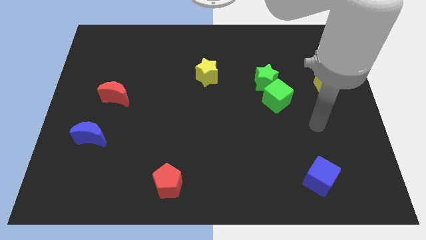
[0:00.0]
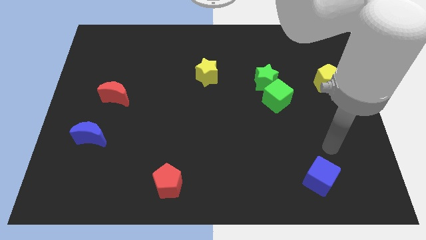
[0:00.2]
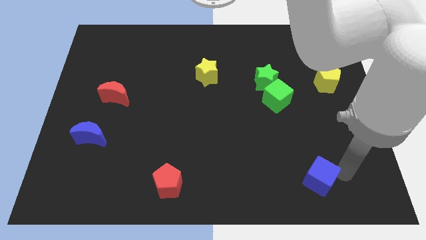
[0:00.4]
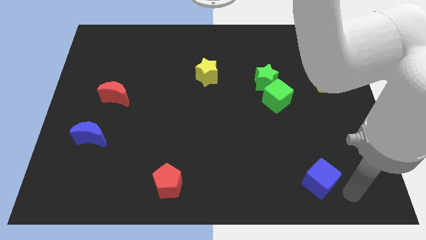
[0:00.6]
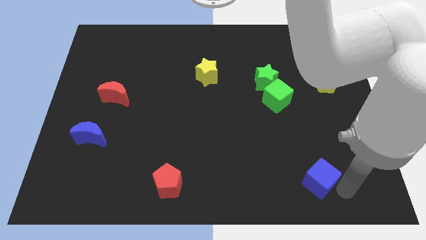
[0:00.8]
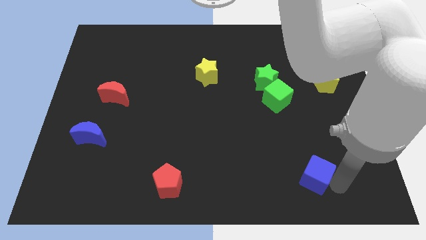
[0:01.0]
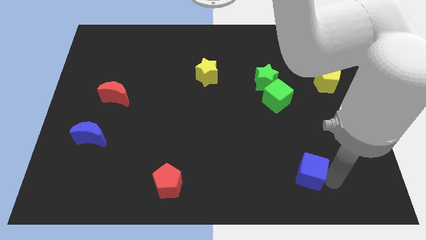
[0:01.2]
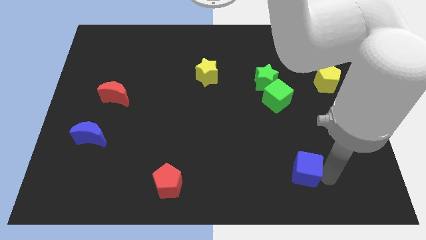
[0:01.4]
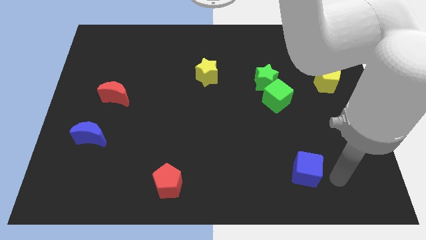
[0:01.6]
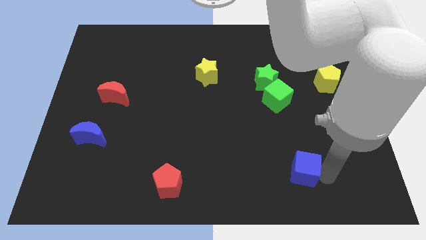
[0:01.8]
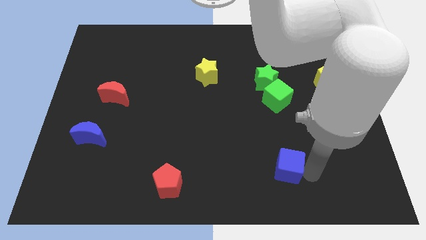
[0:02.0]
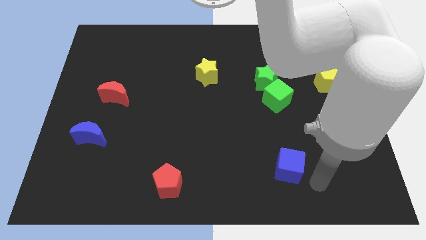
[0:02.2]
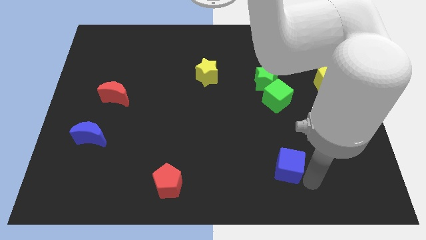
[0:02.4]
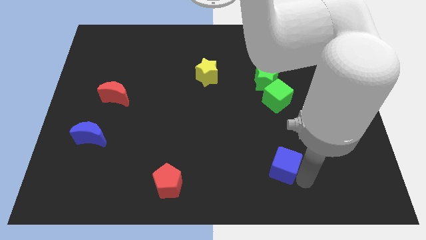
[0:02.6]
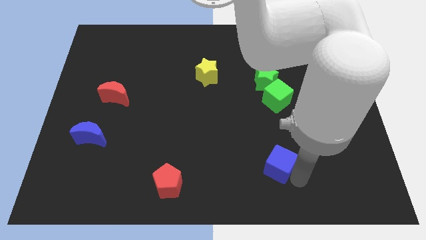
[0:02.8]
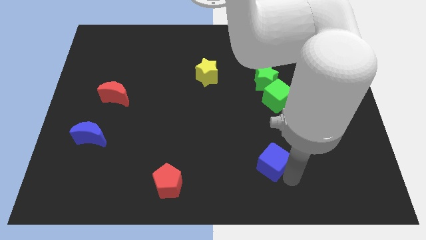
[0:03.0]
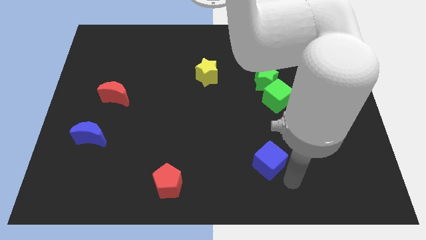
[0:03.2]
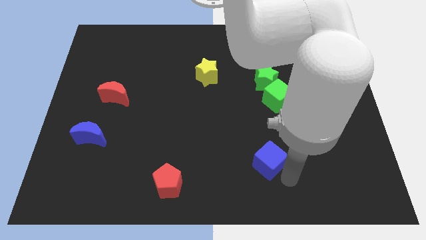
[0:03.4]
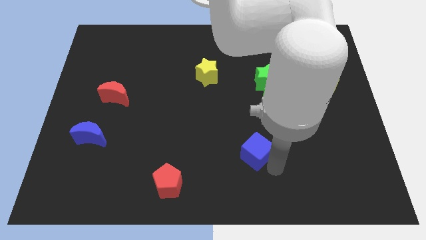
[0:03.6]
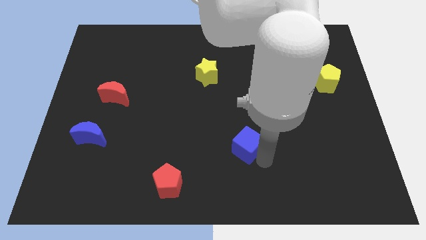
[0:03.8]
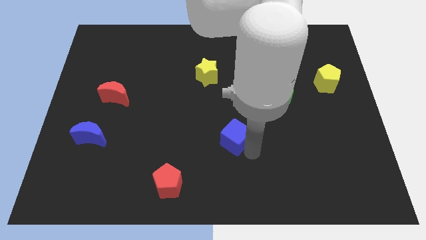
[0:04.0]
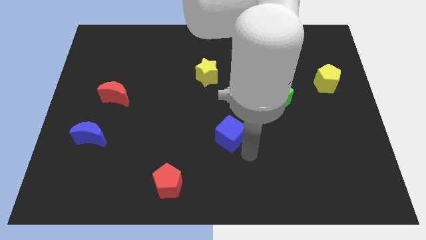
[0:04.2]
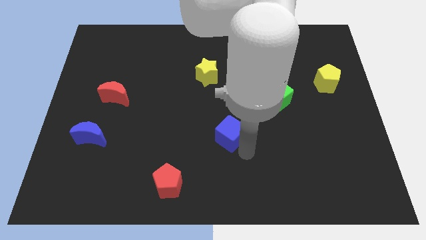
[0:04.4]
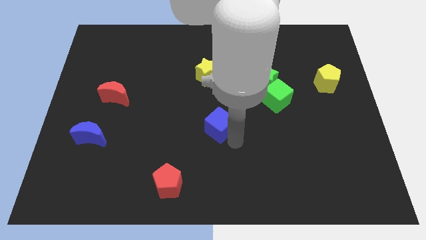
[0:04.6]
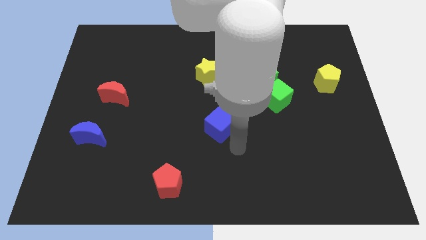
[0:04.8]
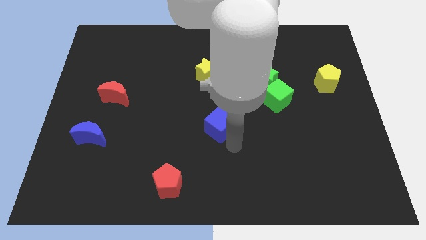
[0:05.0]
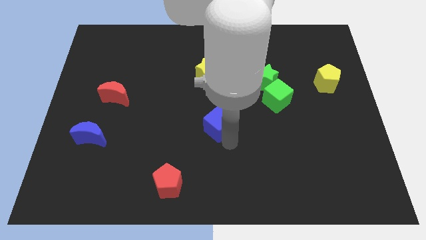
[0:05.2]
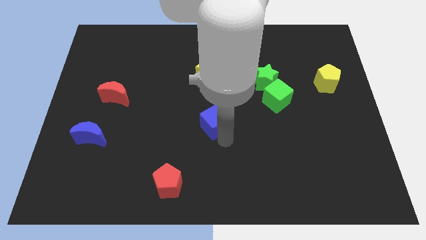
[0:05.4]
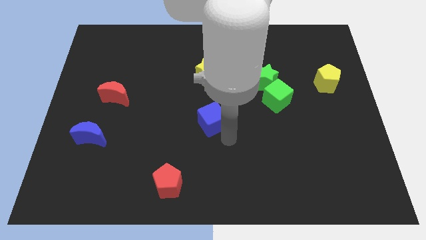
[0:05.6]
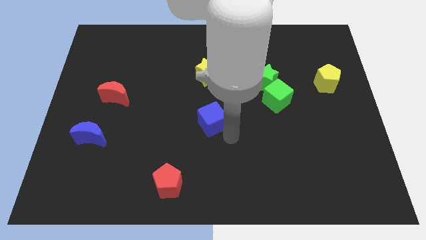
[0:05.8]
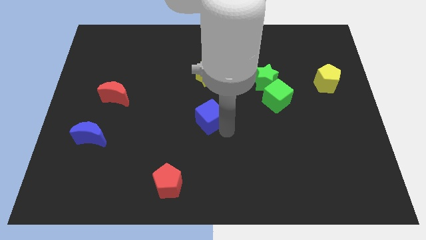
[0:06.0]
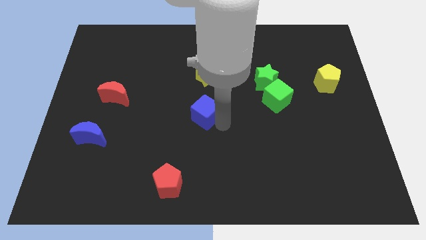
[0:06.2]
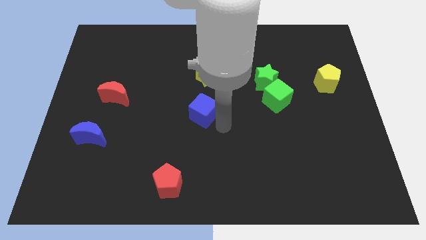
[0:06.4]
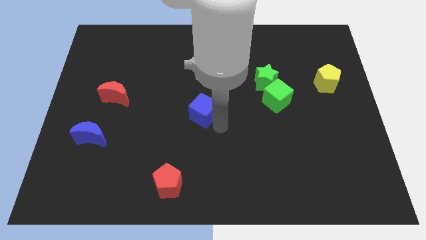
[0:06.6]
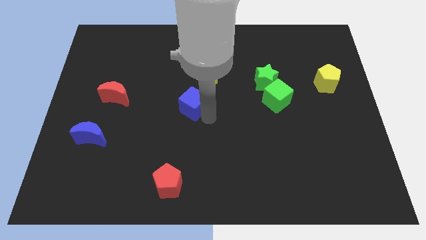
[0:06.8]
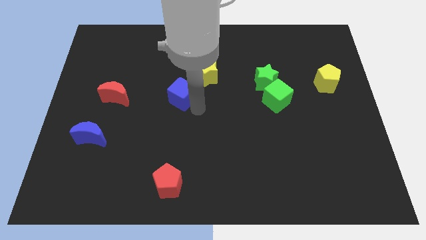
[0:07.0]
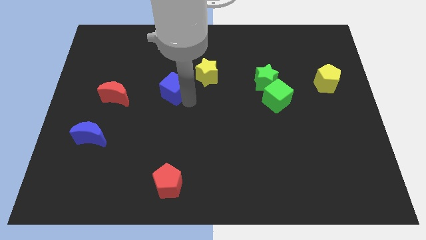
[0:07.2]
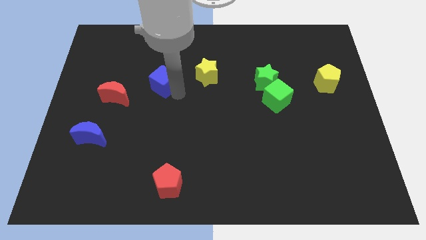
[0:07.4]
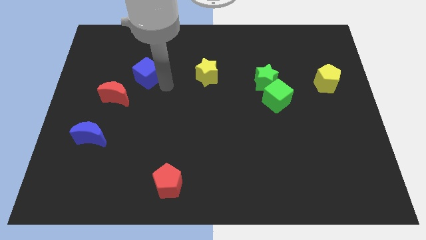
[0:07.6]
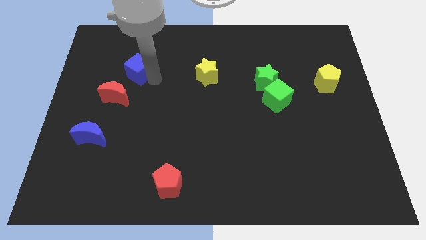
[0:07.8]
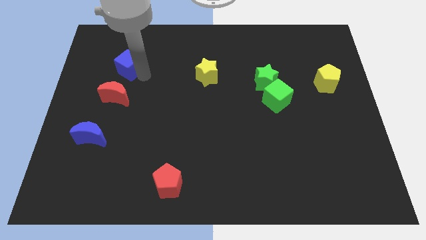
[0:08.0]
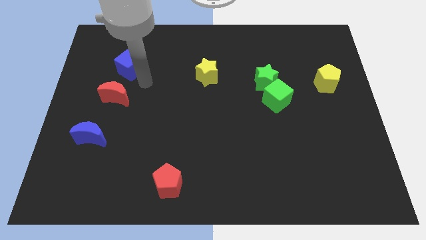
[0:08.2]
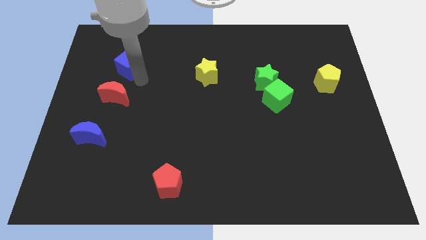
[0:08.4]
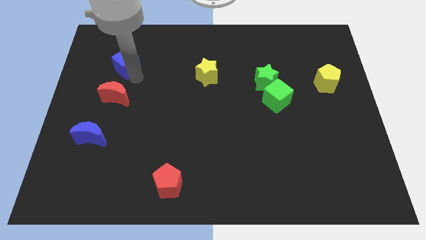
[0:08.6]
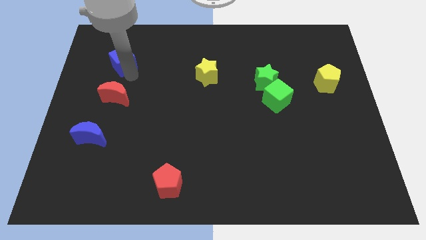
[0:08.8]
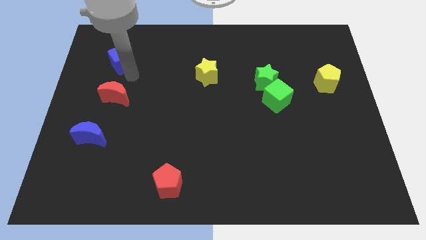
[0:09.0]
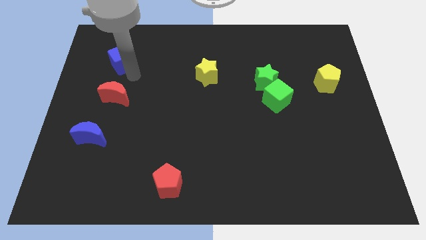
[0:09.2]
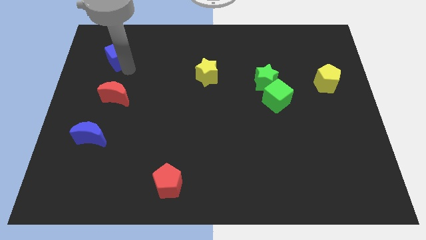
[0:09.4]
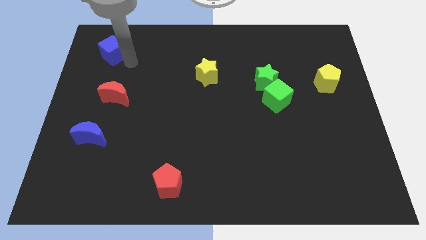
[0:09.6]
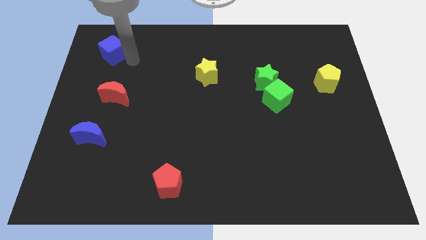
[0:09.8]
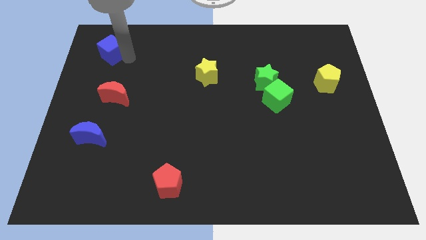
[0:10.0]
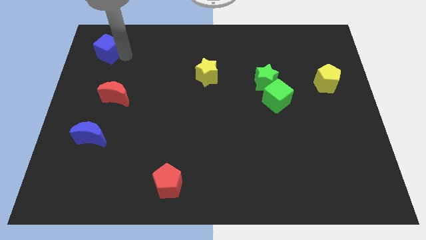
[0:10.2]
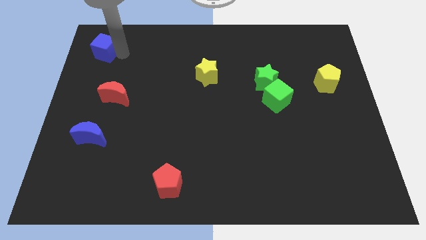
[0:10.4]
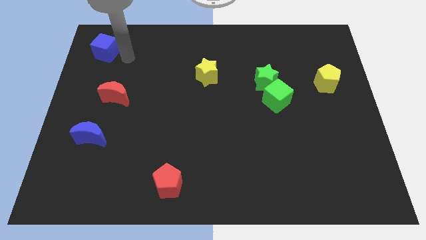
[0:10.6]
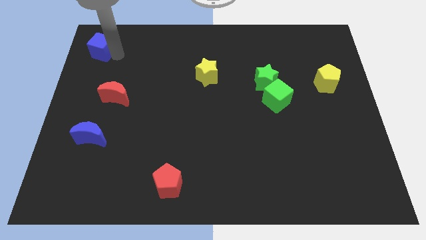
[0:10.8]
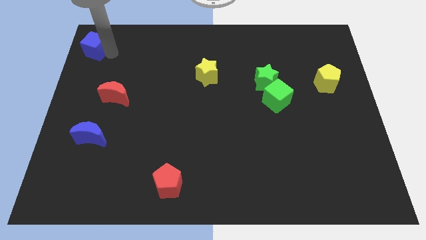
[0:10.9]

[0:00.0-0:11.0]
put the blue cube to the top left corner

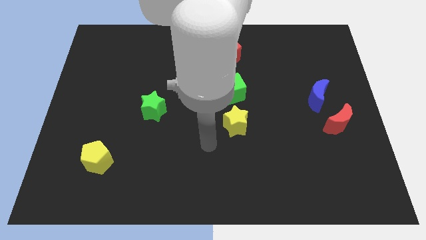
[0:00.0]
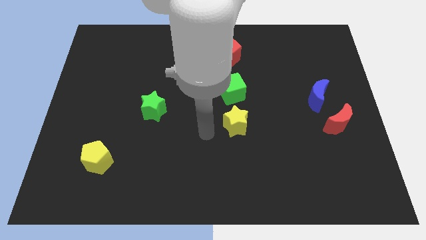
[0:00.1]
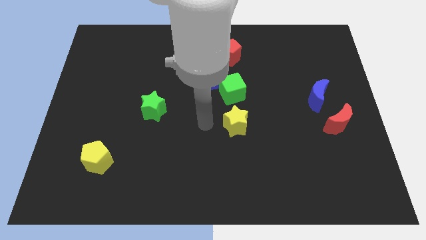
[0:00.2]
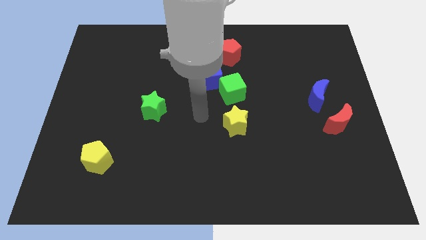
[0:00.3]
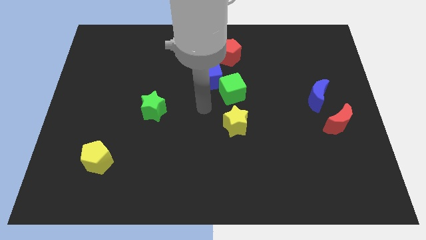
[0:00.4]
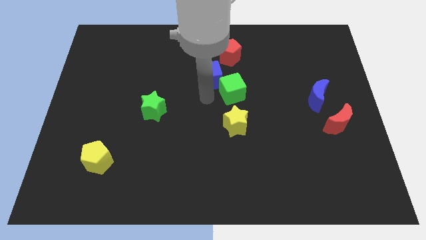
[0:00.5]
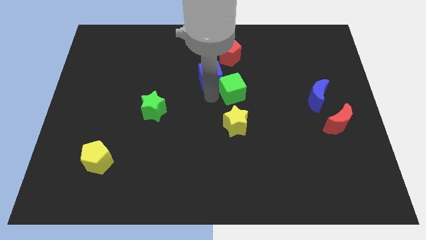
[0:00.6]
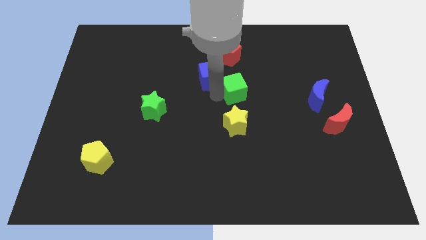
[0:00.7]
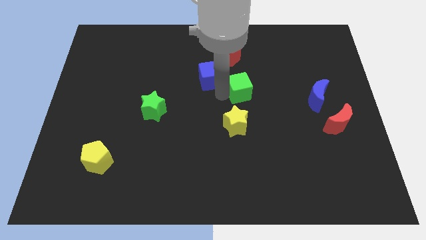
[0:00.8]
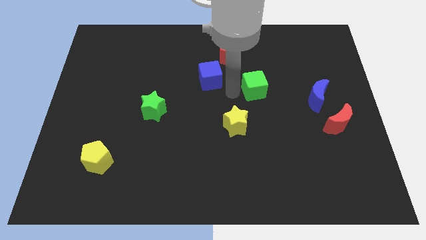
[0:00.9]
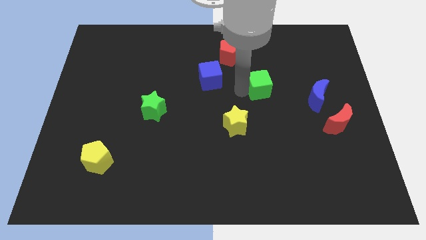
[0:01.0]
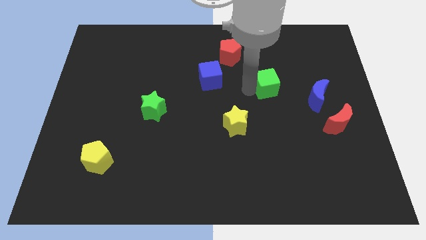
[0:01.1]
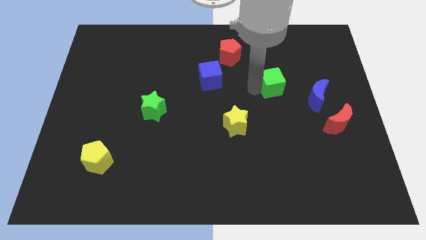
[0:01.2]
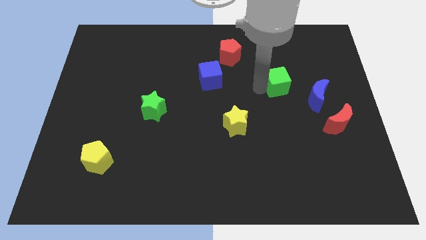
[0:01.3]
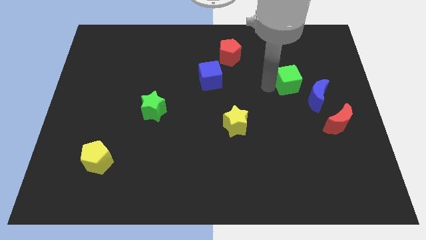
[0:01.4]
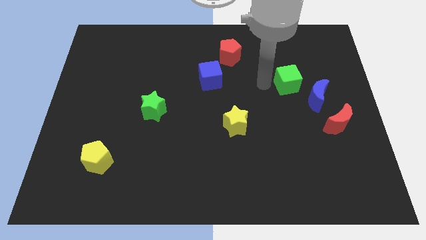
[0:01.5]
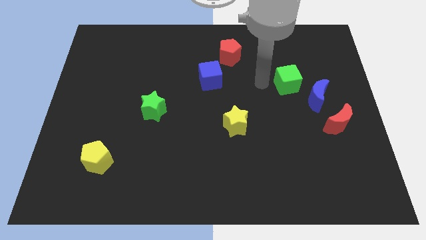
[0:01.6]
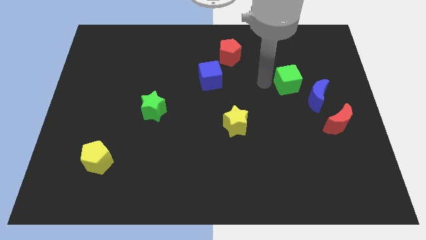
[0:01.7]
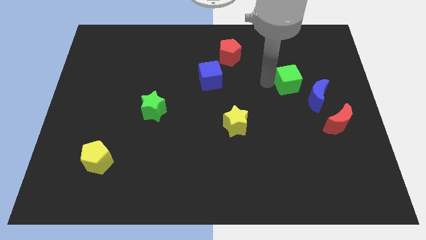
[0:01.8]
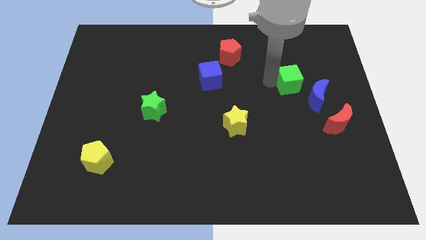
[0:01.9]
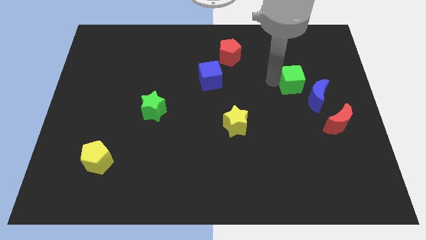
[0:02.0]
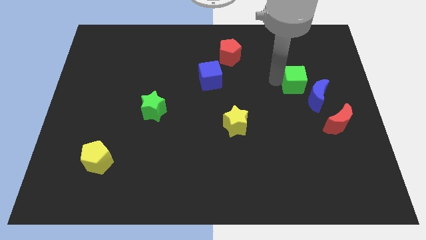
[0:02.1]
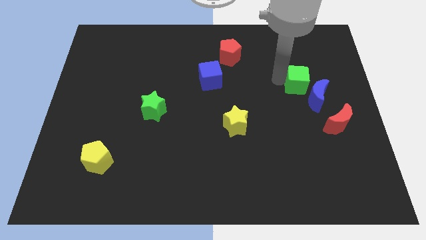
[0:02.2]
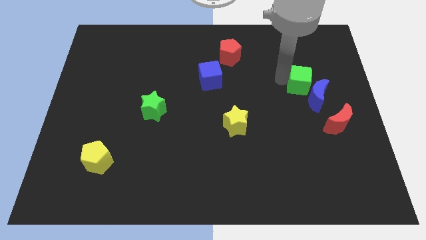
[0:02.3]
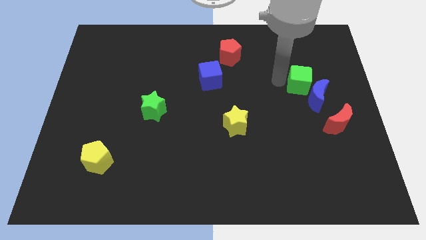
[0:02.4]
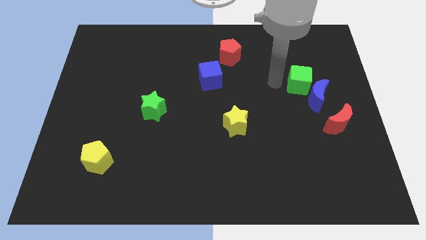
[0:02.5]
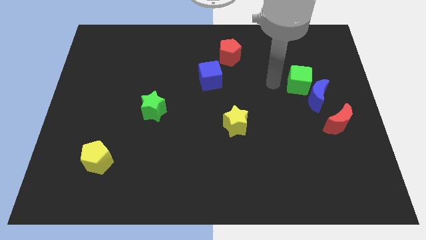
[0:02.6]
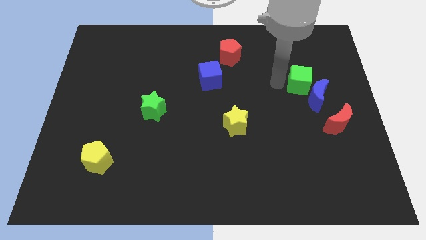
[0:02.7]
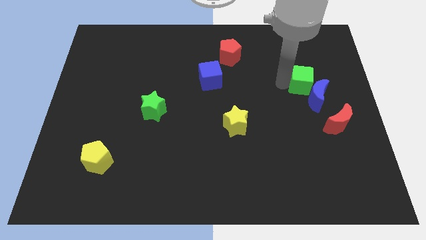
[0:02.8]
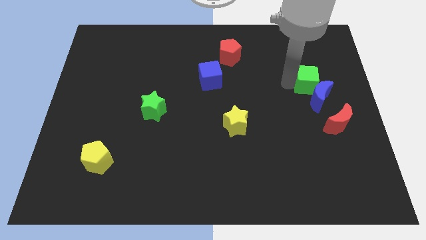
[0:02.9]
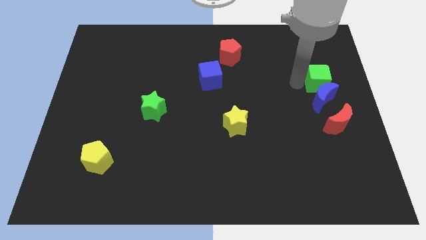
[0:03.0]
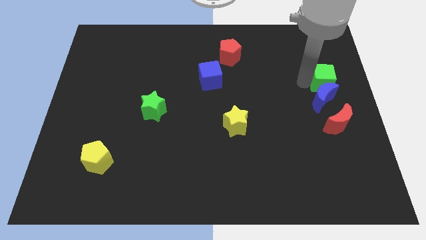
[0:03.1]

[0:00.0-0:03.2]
put the green cube to the right side
